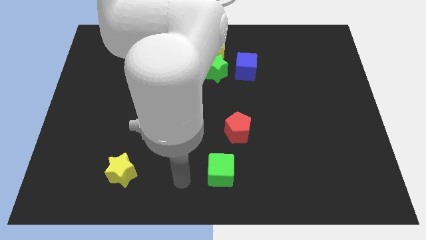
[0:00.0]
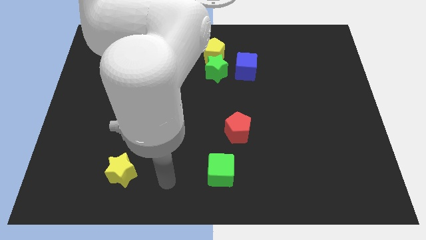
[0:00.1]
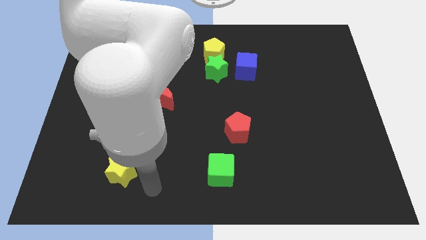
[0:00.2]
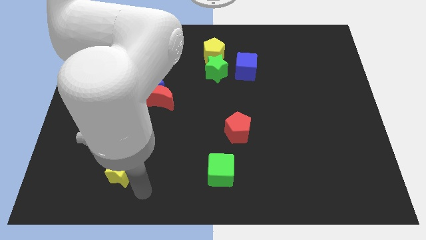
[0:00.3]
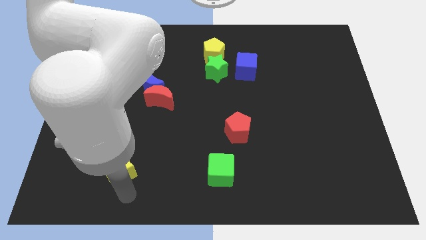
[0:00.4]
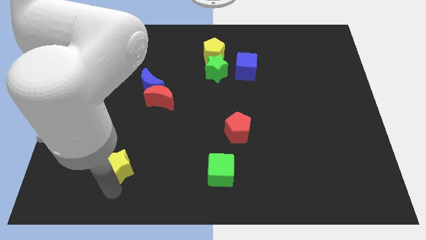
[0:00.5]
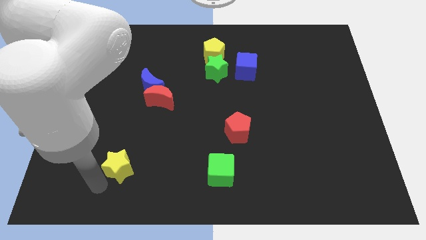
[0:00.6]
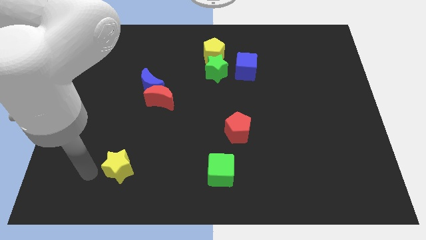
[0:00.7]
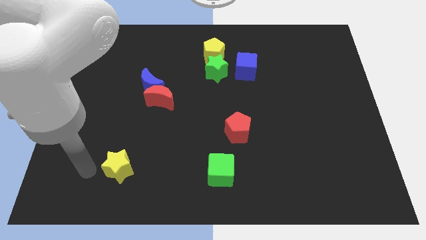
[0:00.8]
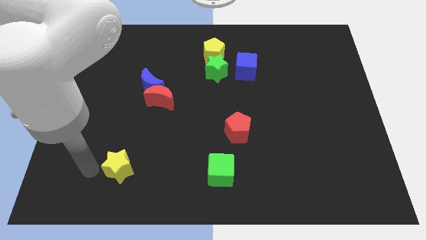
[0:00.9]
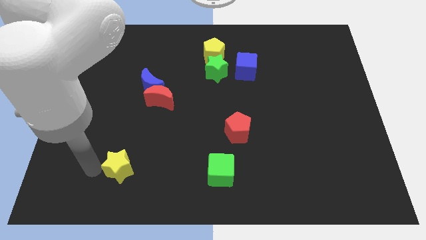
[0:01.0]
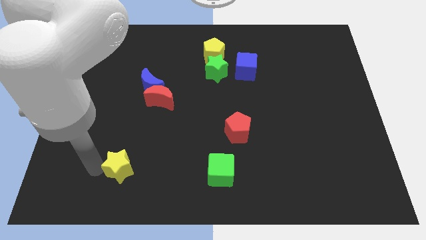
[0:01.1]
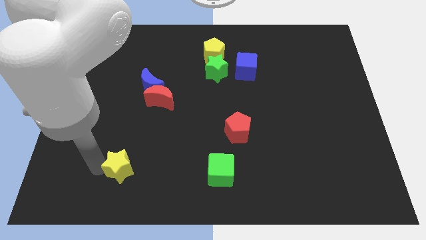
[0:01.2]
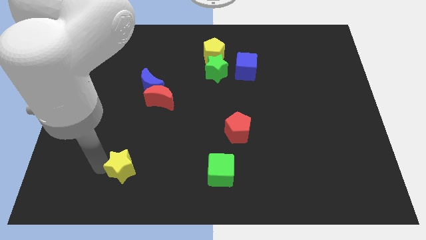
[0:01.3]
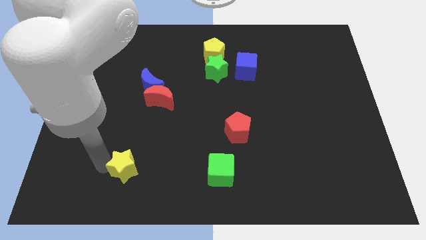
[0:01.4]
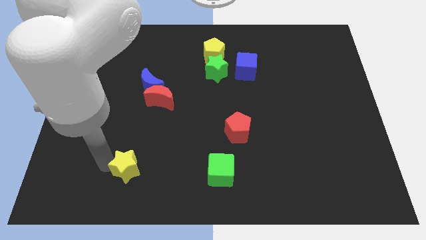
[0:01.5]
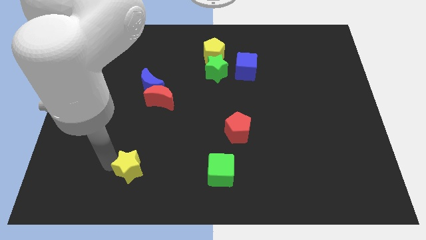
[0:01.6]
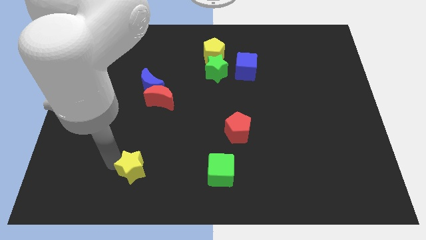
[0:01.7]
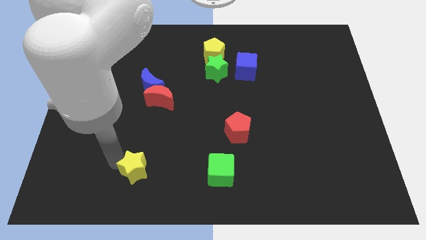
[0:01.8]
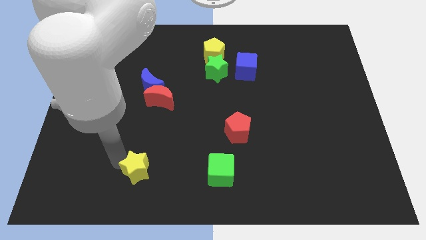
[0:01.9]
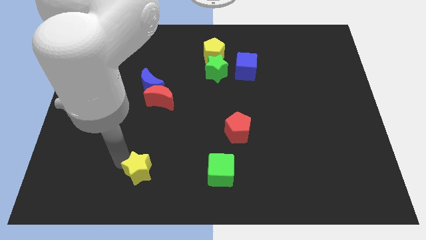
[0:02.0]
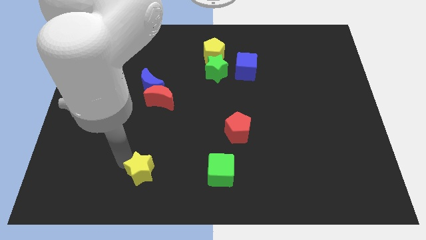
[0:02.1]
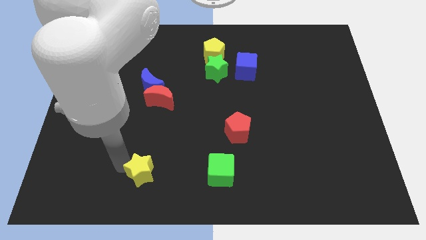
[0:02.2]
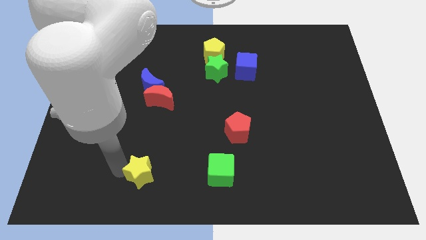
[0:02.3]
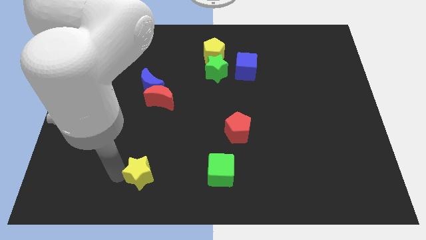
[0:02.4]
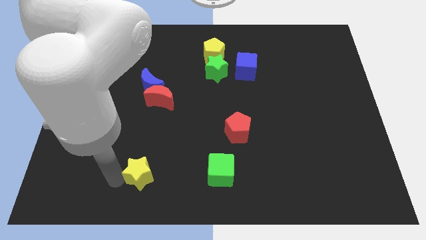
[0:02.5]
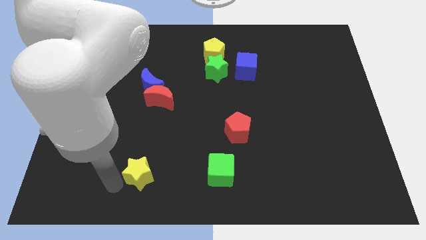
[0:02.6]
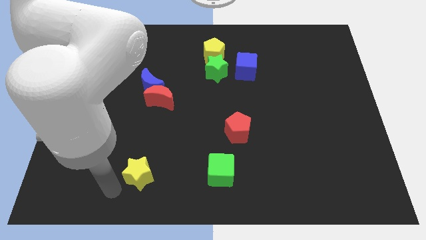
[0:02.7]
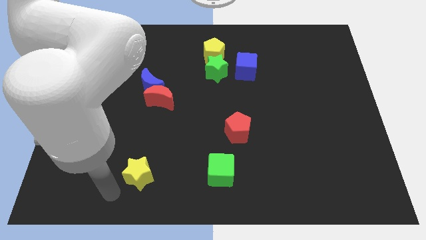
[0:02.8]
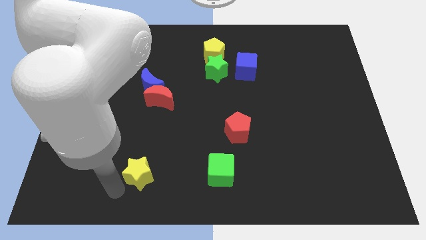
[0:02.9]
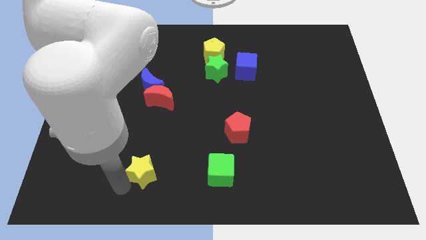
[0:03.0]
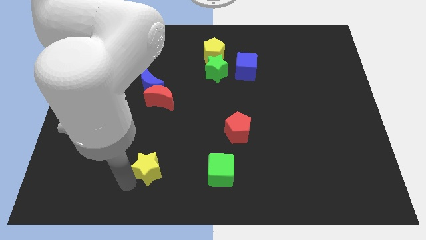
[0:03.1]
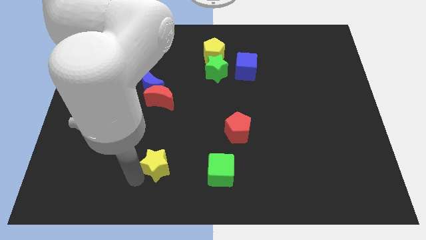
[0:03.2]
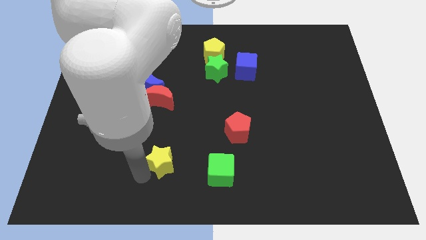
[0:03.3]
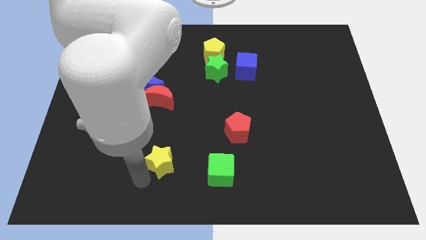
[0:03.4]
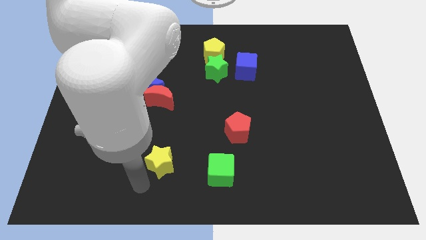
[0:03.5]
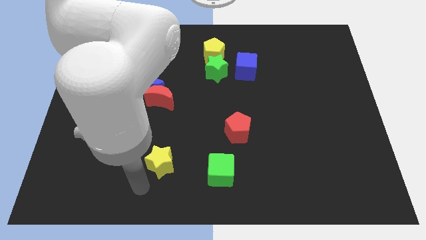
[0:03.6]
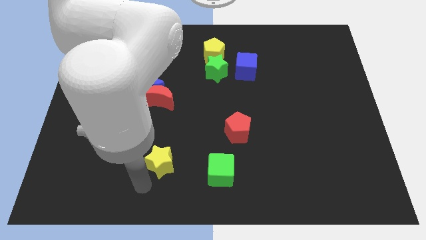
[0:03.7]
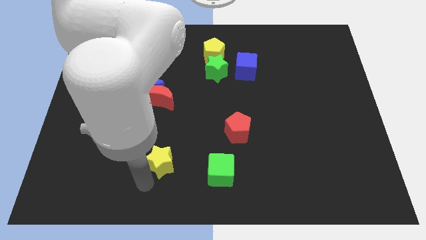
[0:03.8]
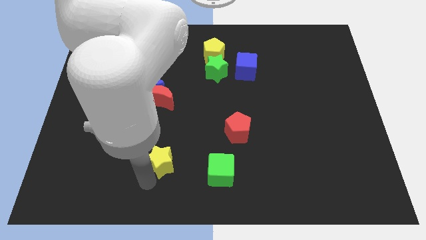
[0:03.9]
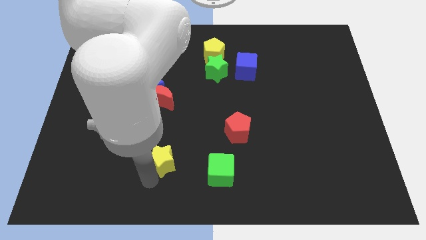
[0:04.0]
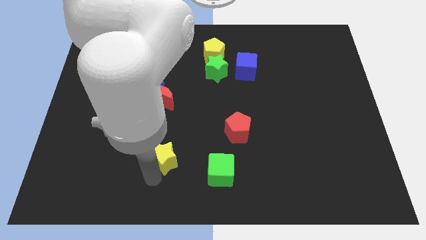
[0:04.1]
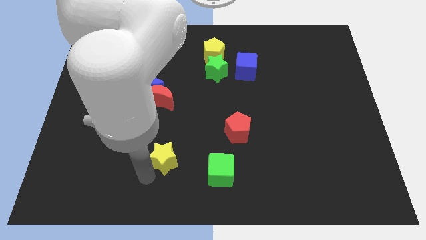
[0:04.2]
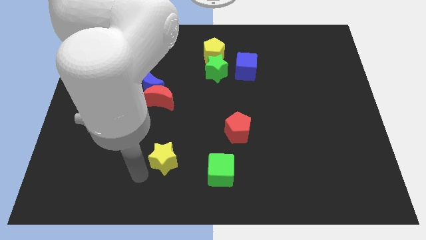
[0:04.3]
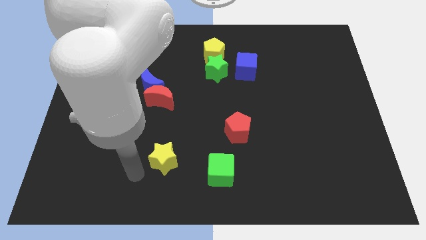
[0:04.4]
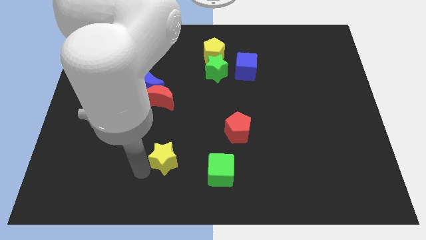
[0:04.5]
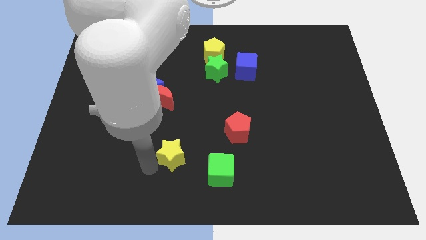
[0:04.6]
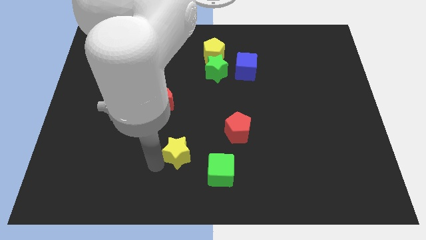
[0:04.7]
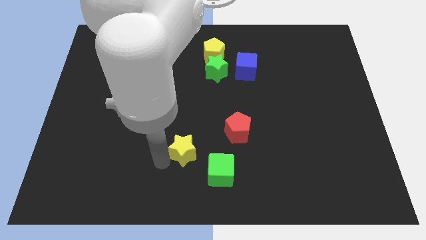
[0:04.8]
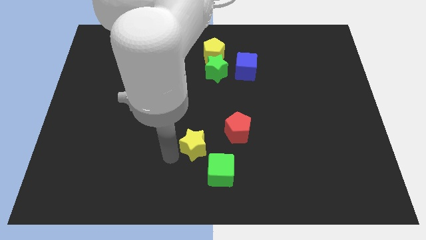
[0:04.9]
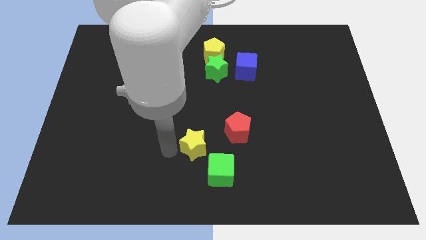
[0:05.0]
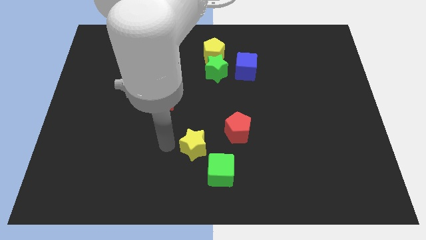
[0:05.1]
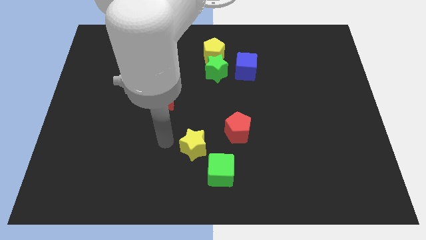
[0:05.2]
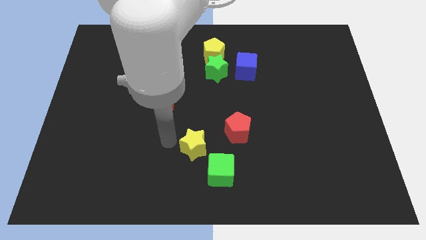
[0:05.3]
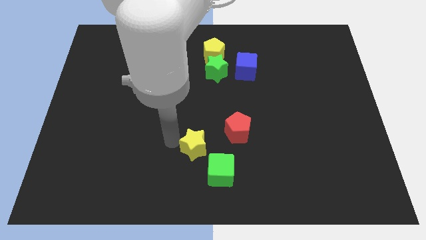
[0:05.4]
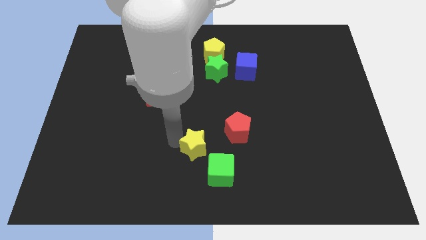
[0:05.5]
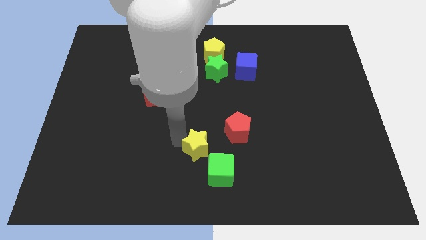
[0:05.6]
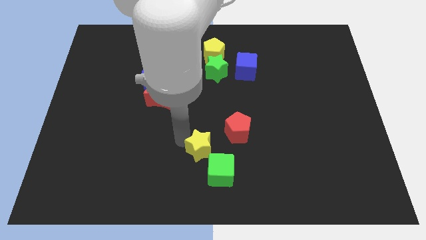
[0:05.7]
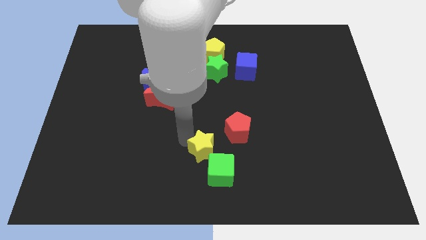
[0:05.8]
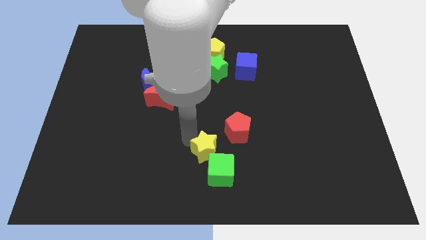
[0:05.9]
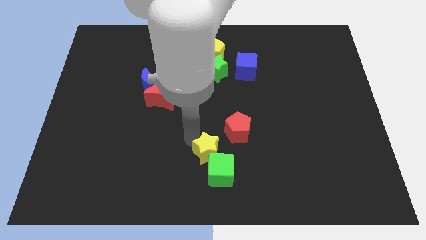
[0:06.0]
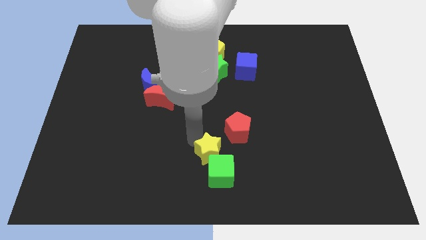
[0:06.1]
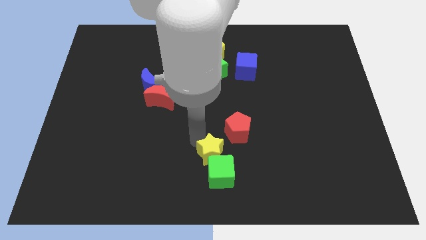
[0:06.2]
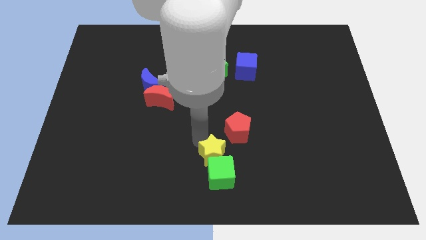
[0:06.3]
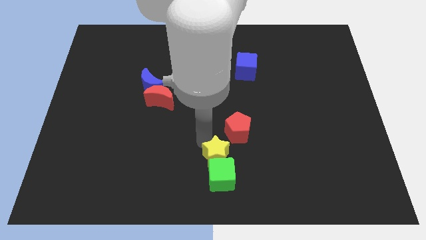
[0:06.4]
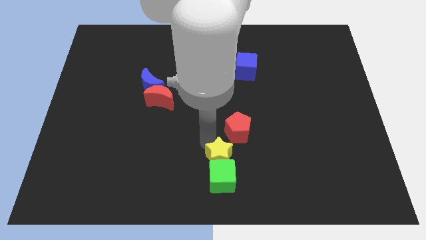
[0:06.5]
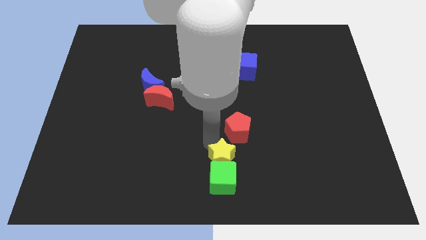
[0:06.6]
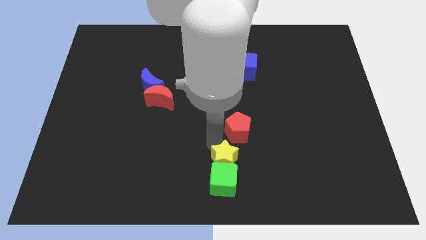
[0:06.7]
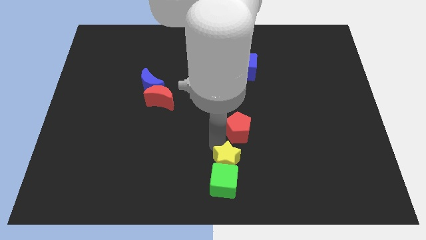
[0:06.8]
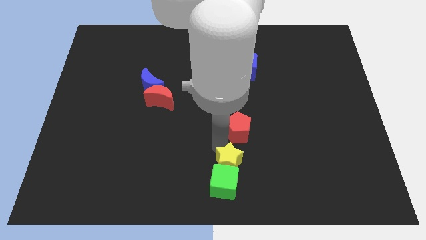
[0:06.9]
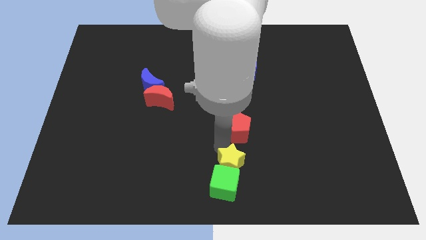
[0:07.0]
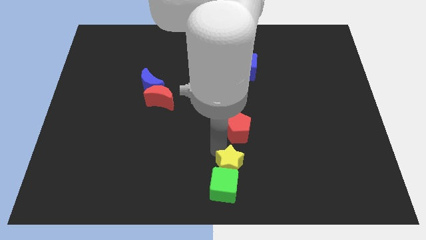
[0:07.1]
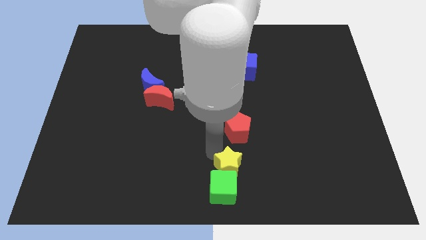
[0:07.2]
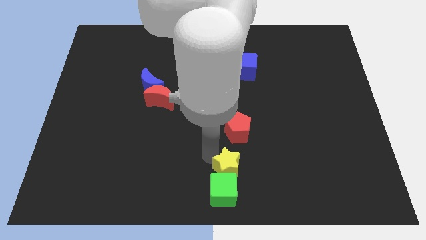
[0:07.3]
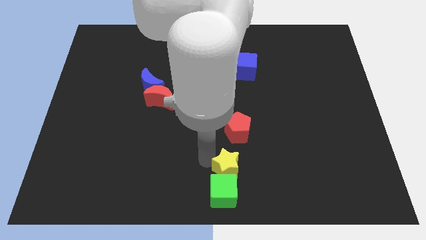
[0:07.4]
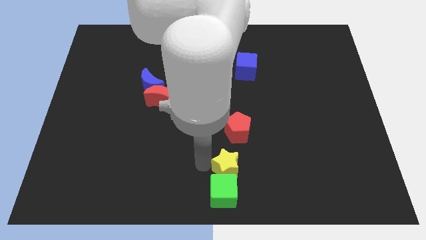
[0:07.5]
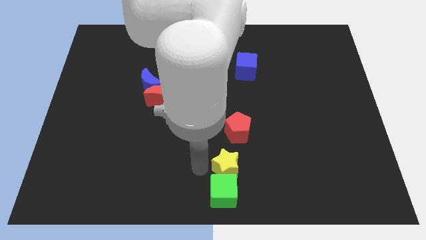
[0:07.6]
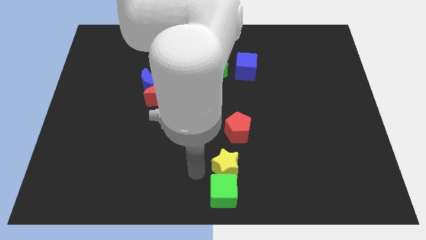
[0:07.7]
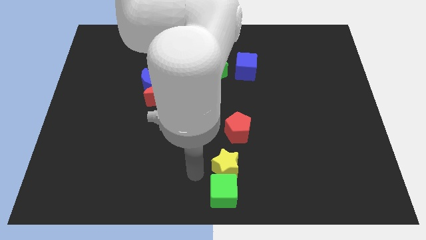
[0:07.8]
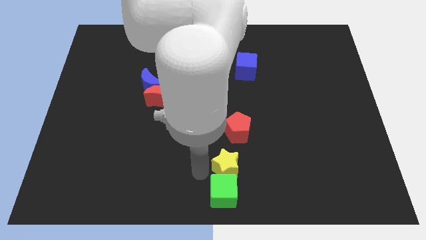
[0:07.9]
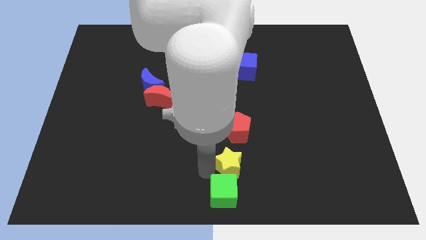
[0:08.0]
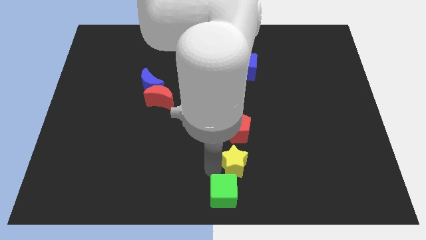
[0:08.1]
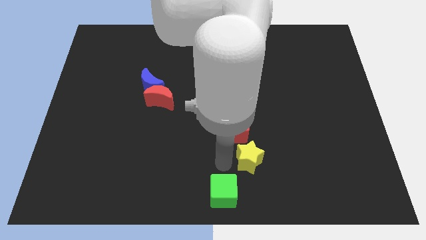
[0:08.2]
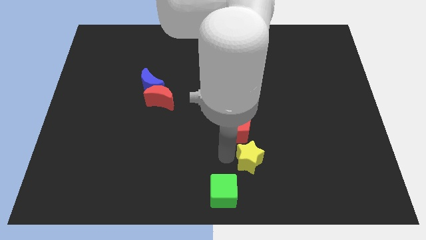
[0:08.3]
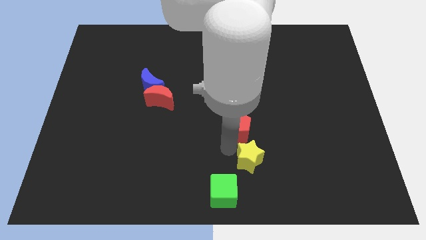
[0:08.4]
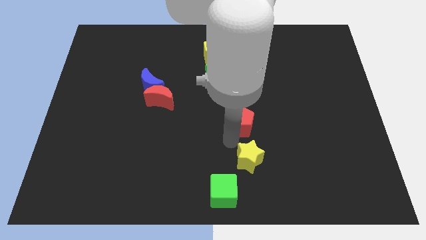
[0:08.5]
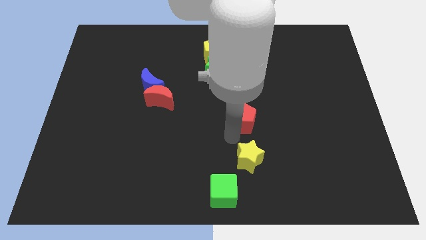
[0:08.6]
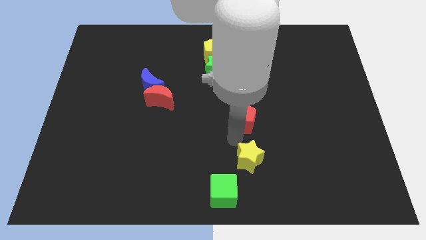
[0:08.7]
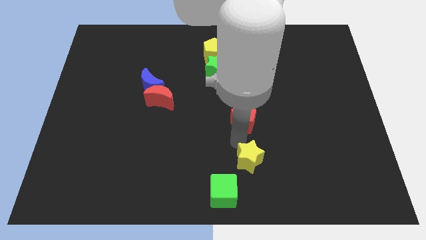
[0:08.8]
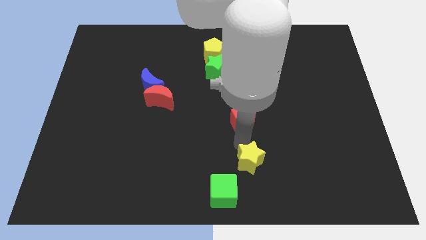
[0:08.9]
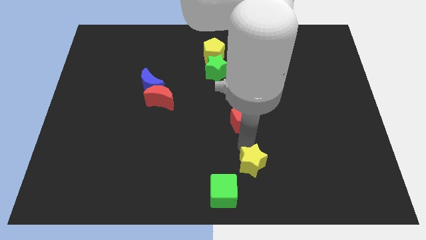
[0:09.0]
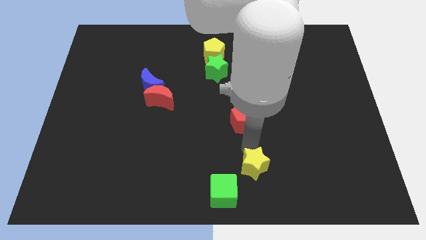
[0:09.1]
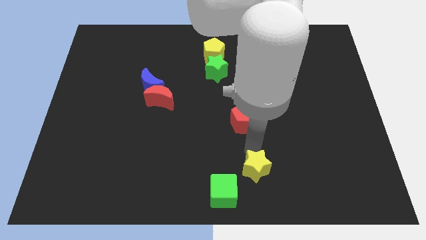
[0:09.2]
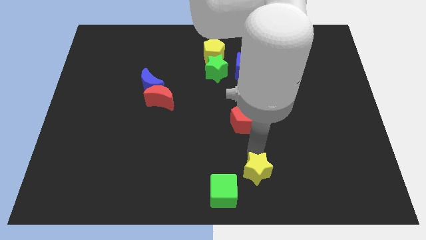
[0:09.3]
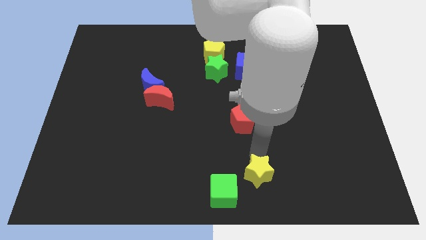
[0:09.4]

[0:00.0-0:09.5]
move the yellow star to the right side of the green cube
